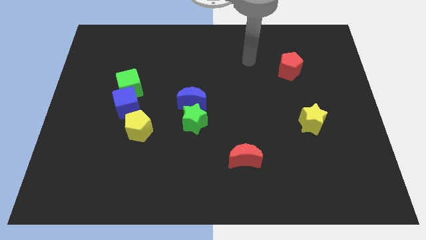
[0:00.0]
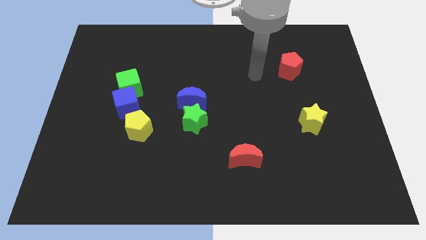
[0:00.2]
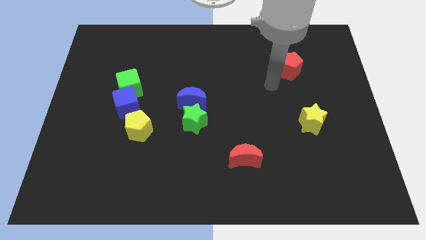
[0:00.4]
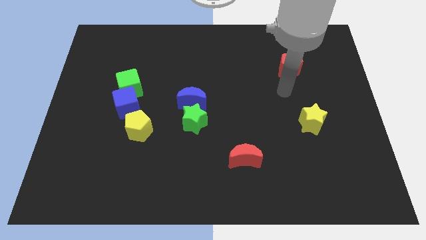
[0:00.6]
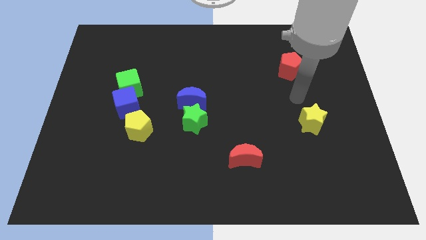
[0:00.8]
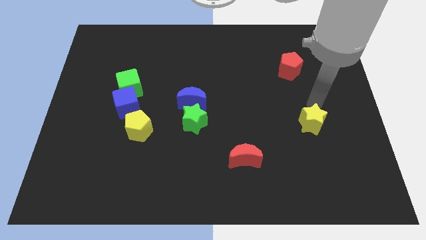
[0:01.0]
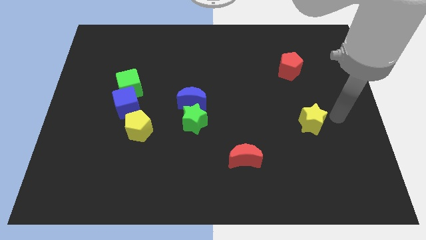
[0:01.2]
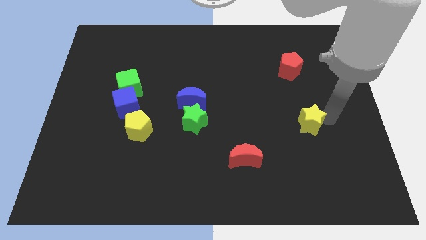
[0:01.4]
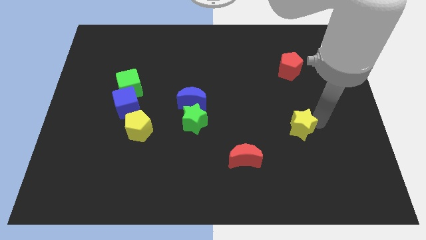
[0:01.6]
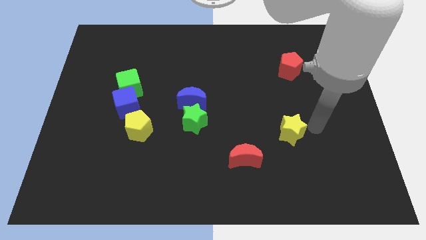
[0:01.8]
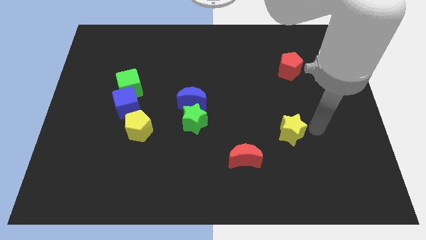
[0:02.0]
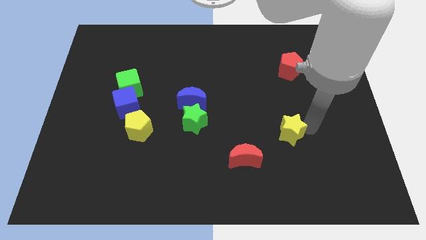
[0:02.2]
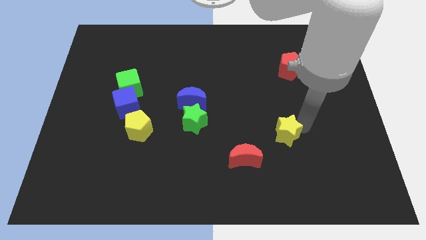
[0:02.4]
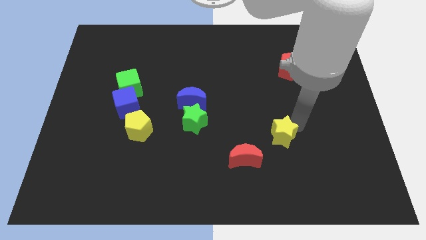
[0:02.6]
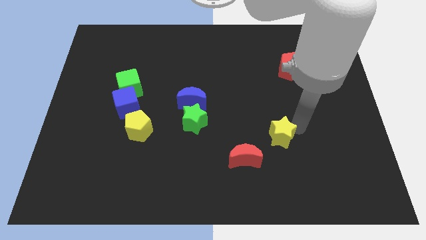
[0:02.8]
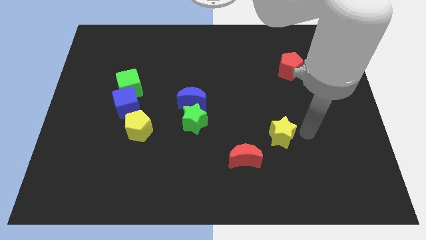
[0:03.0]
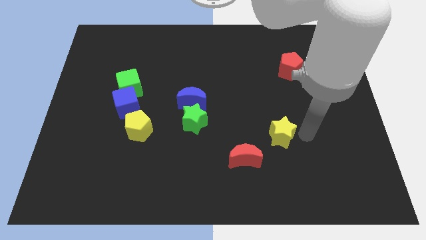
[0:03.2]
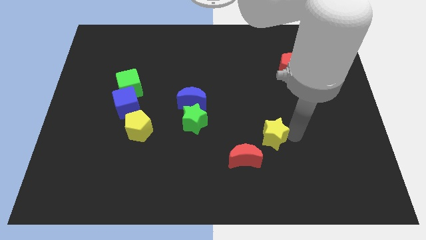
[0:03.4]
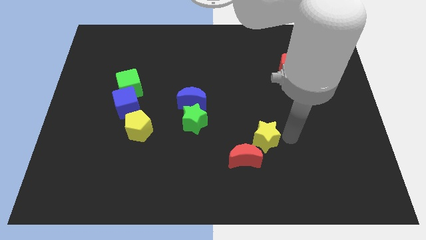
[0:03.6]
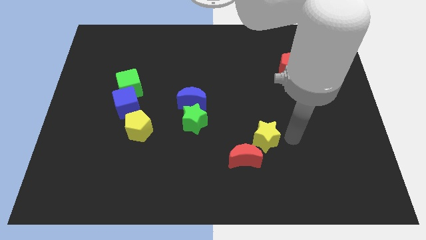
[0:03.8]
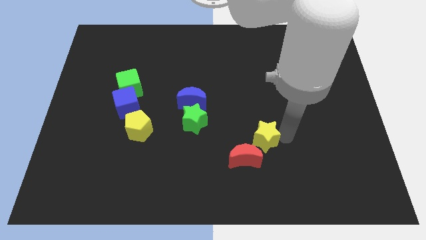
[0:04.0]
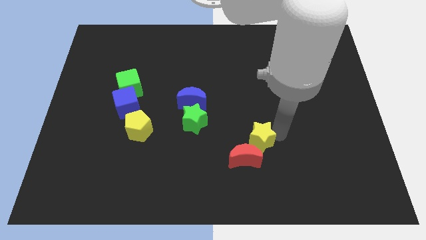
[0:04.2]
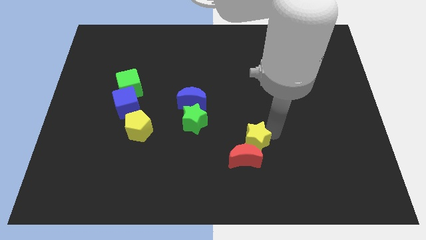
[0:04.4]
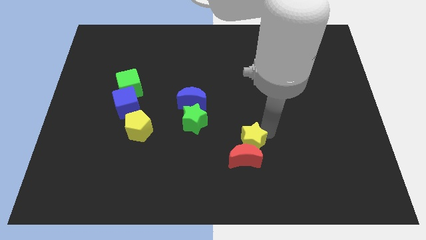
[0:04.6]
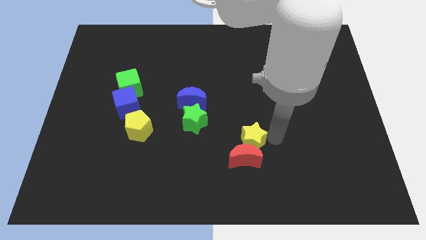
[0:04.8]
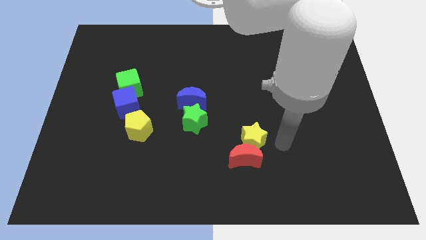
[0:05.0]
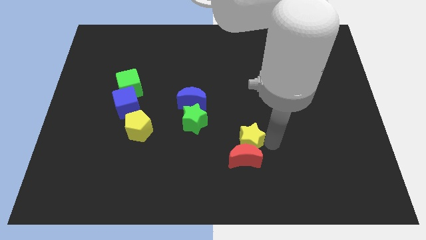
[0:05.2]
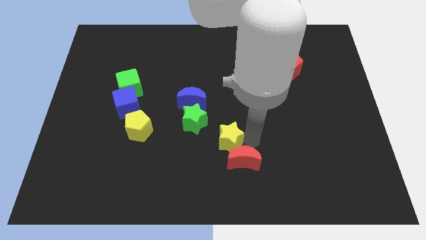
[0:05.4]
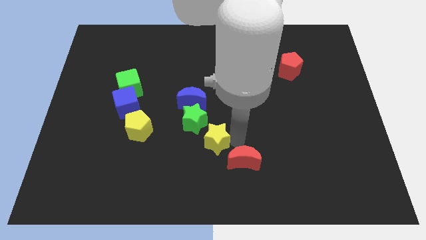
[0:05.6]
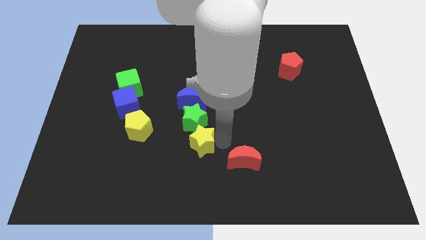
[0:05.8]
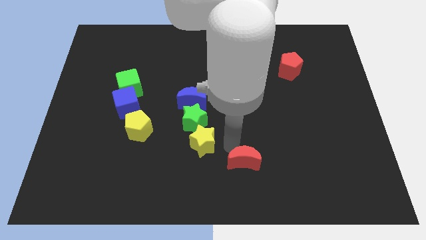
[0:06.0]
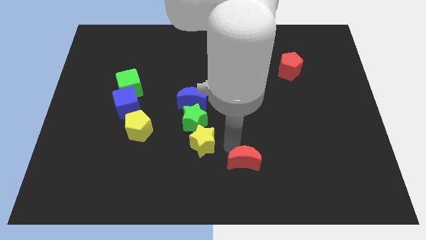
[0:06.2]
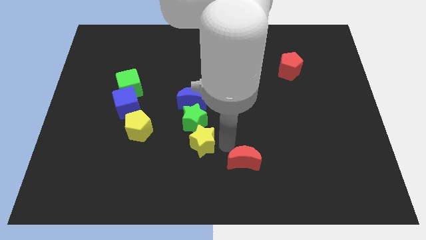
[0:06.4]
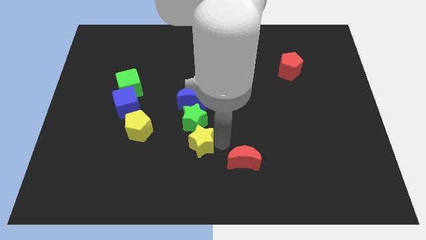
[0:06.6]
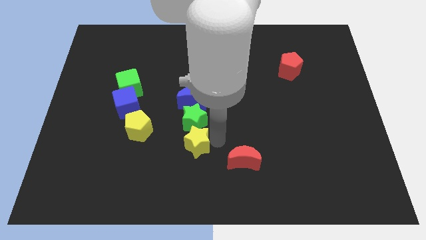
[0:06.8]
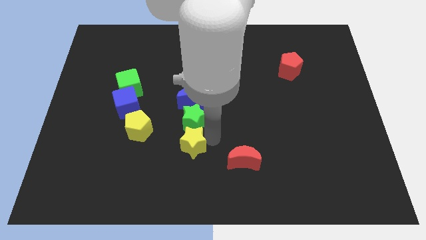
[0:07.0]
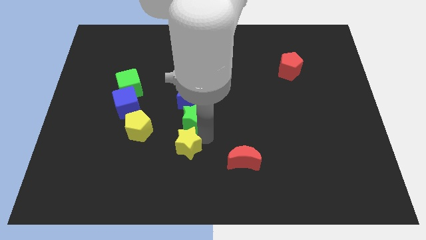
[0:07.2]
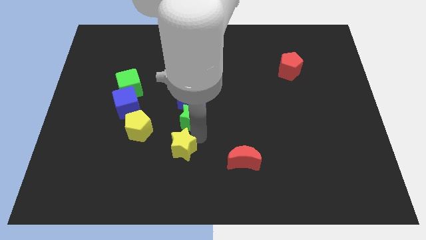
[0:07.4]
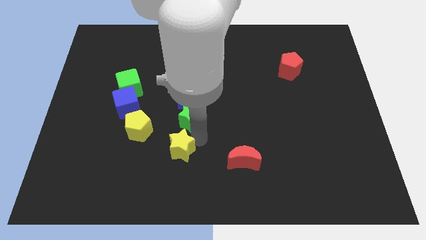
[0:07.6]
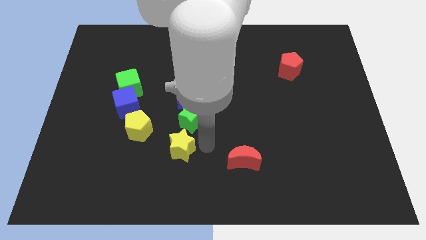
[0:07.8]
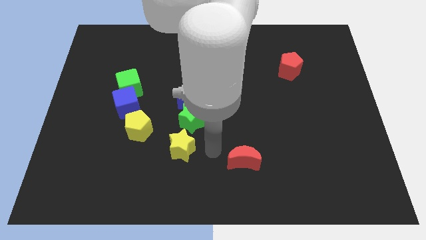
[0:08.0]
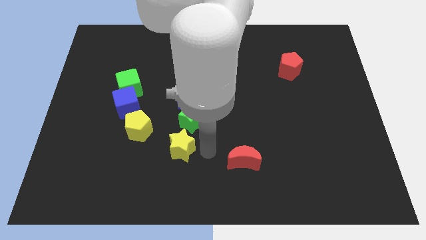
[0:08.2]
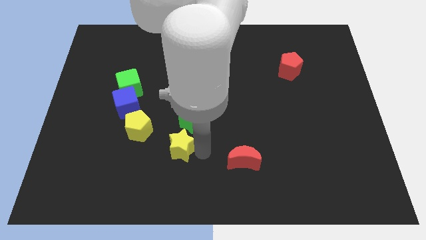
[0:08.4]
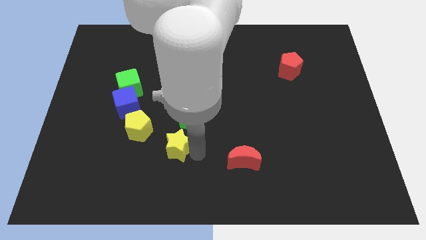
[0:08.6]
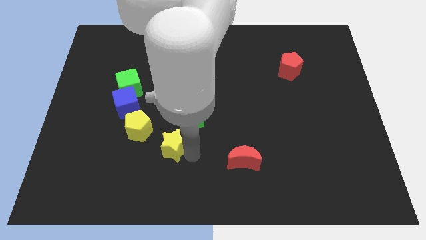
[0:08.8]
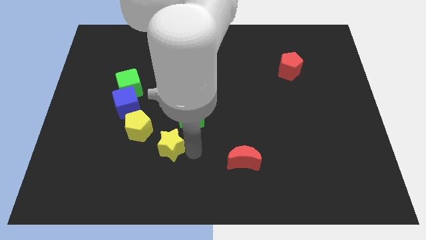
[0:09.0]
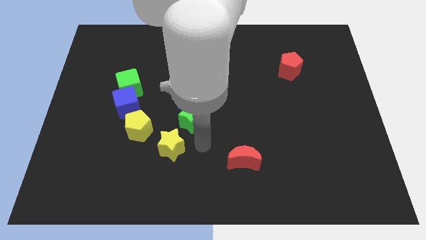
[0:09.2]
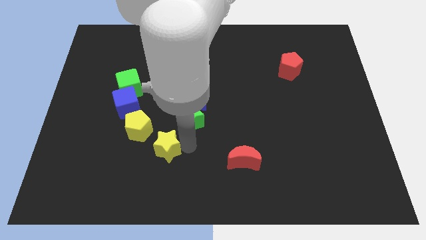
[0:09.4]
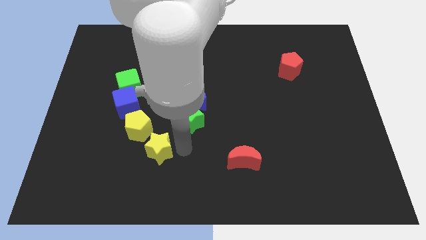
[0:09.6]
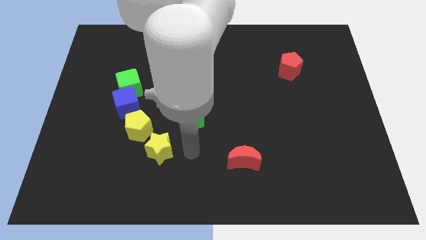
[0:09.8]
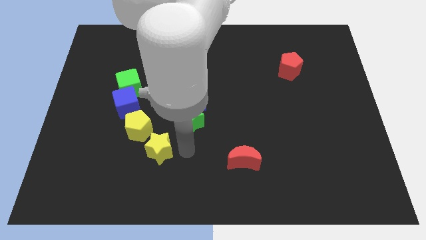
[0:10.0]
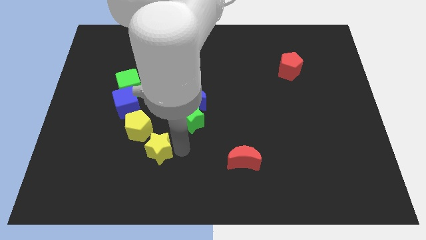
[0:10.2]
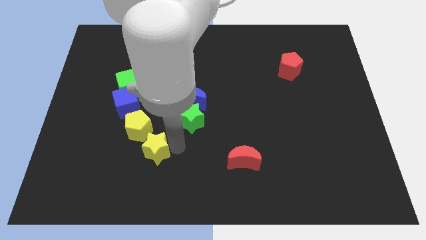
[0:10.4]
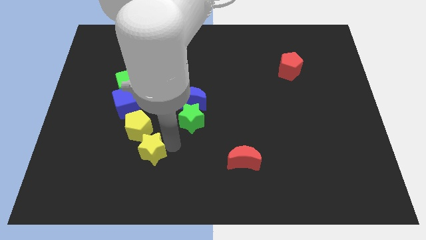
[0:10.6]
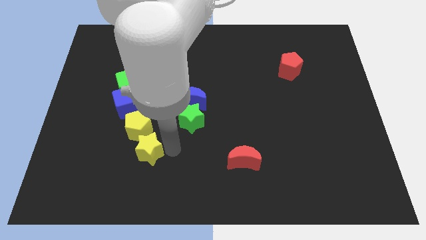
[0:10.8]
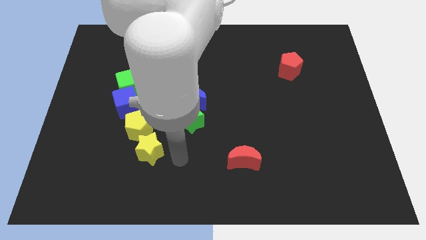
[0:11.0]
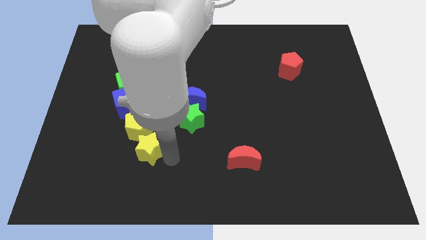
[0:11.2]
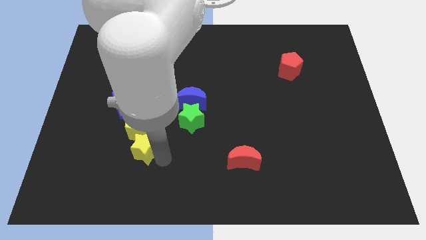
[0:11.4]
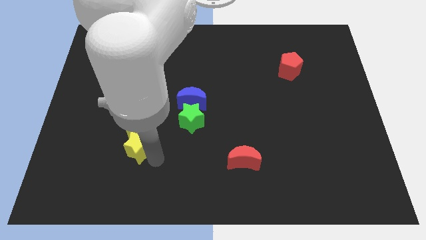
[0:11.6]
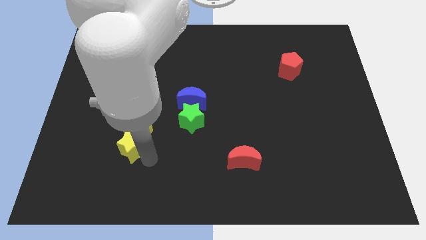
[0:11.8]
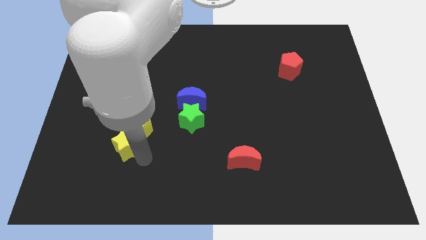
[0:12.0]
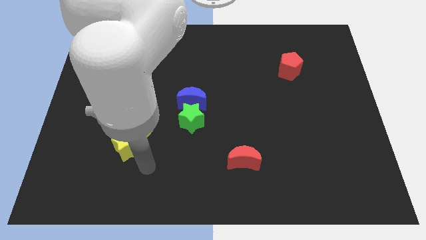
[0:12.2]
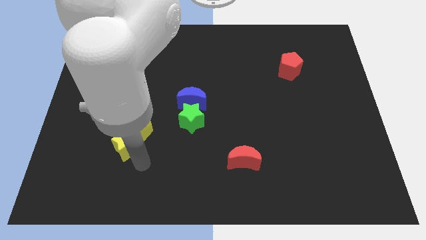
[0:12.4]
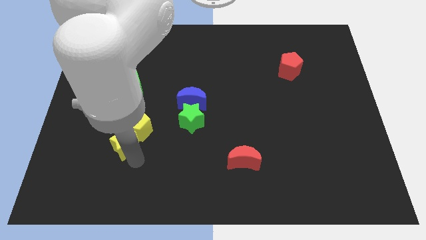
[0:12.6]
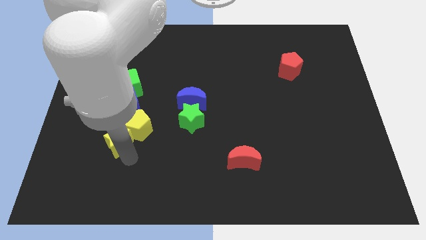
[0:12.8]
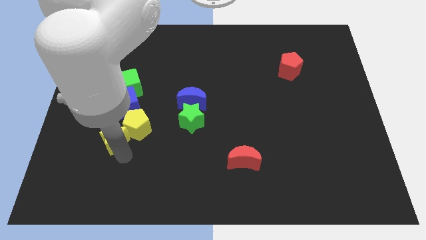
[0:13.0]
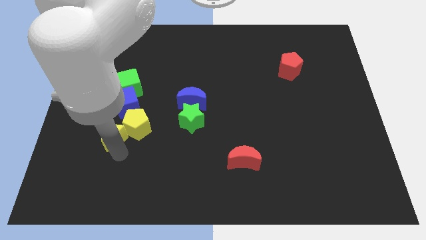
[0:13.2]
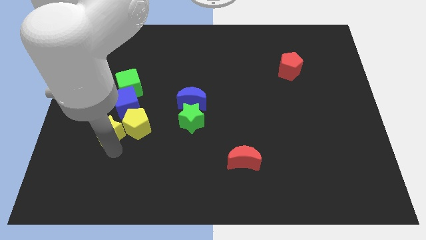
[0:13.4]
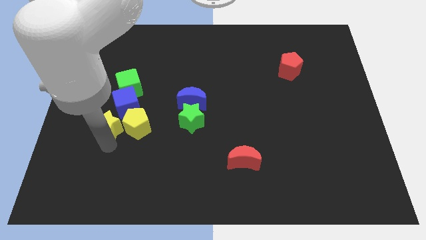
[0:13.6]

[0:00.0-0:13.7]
put the yellow star to the top left side of the yellow pentagon
